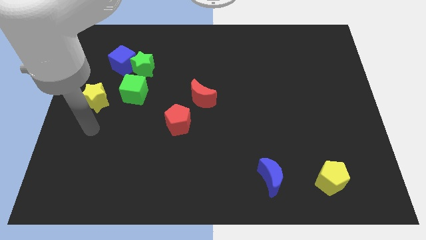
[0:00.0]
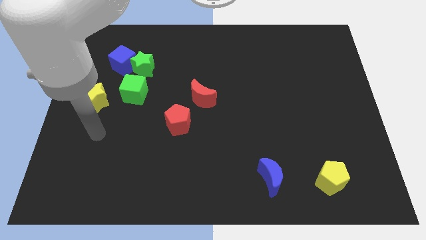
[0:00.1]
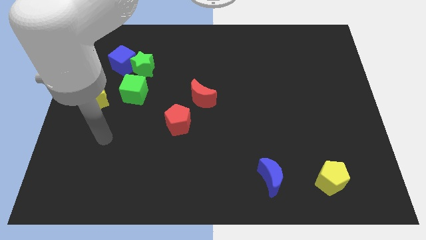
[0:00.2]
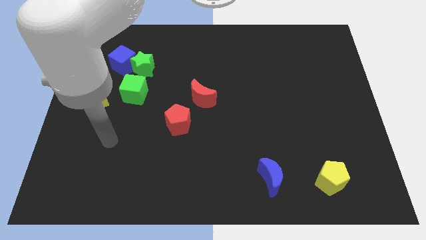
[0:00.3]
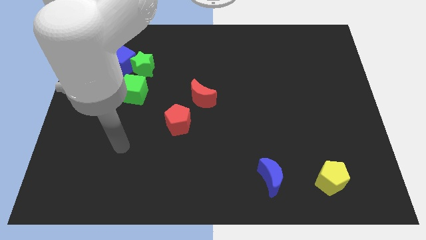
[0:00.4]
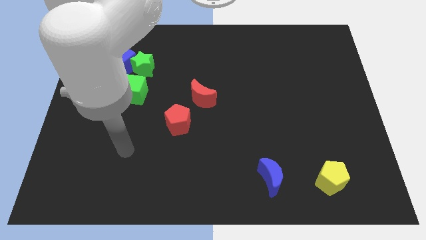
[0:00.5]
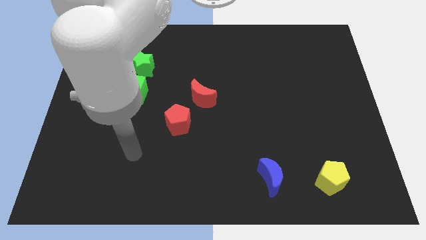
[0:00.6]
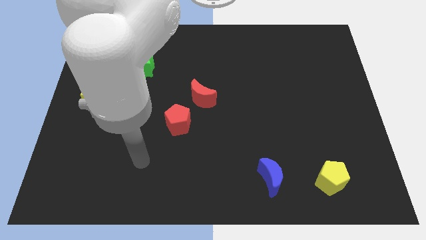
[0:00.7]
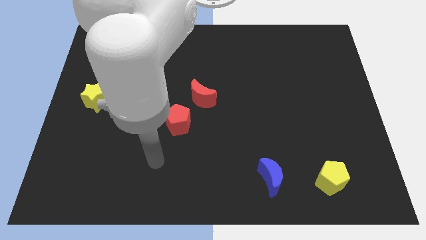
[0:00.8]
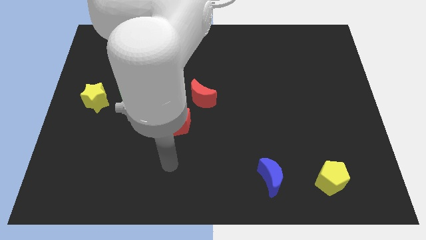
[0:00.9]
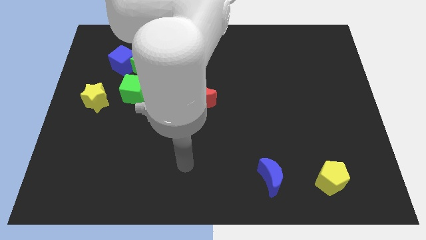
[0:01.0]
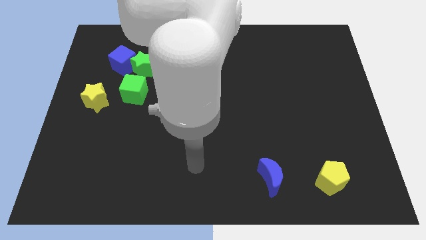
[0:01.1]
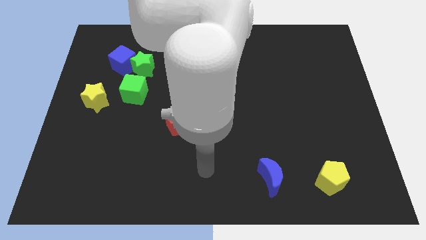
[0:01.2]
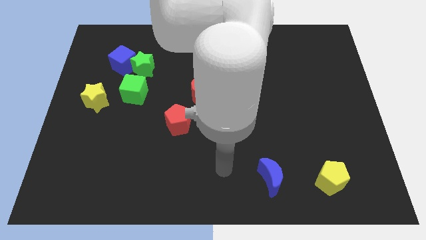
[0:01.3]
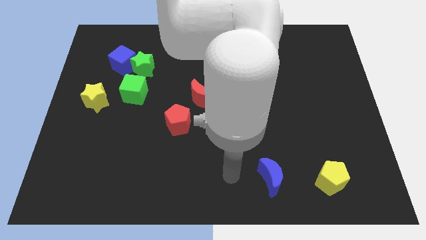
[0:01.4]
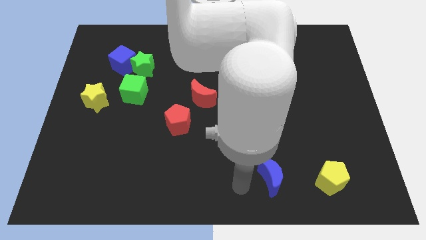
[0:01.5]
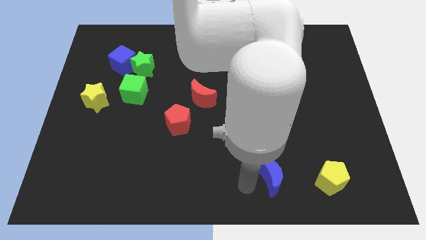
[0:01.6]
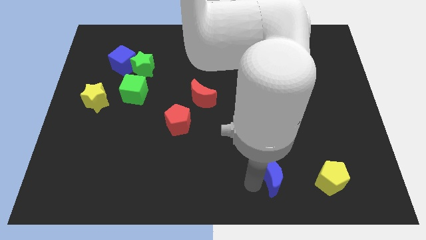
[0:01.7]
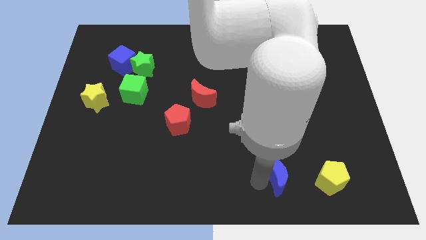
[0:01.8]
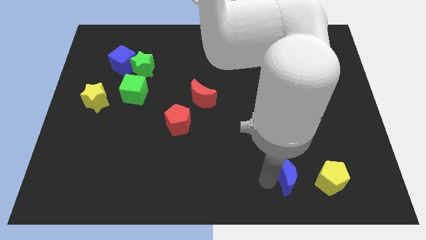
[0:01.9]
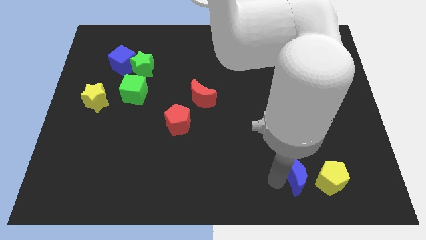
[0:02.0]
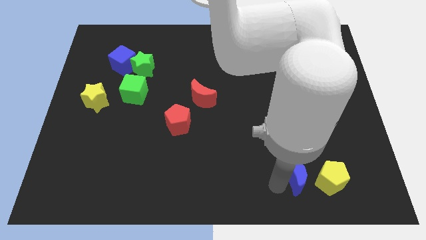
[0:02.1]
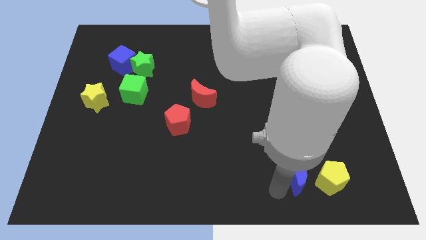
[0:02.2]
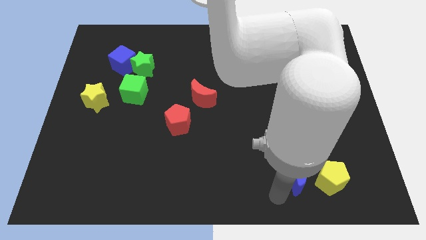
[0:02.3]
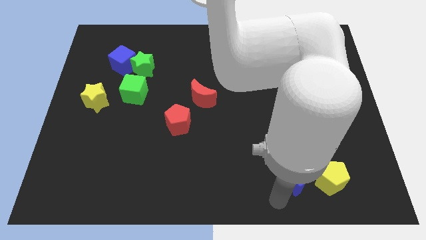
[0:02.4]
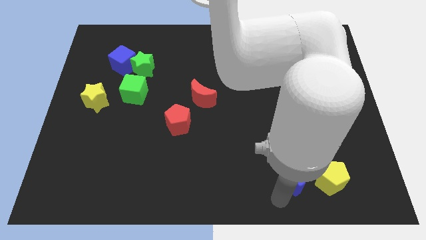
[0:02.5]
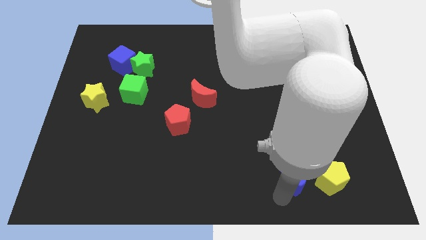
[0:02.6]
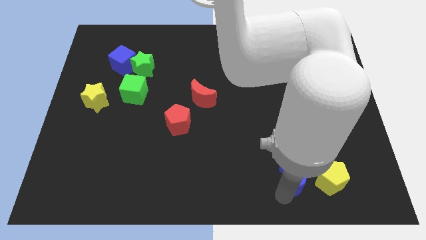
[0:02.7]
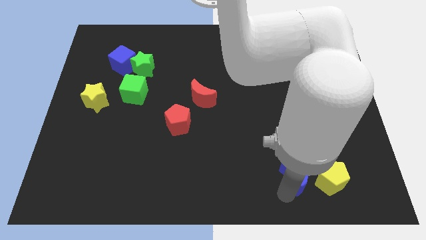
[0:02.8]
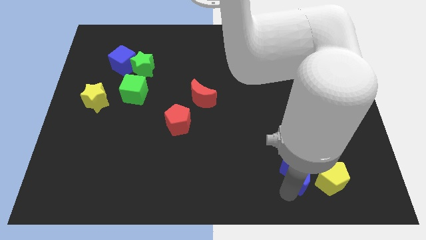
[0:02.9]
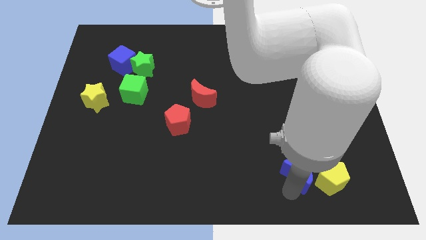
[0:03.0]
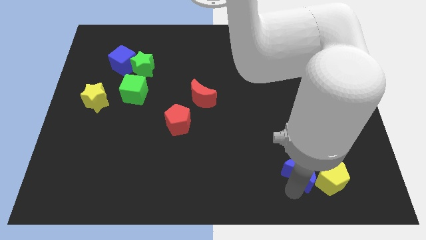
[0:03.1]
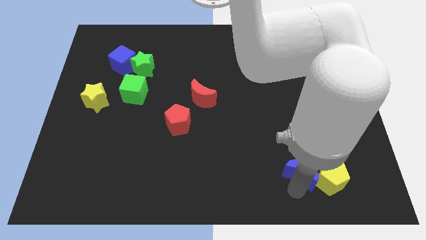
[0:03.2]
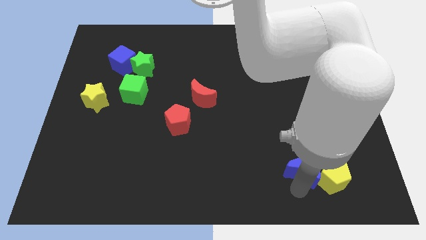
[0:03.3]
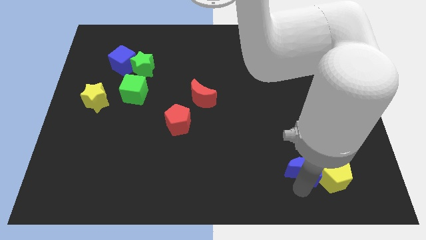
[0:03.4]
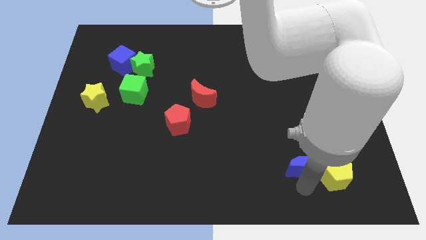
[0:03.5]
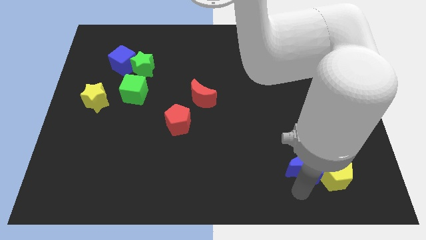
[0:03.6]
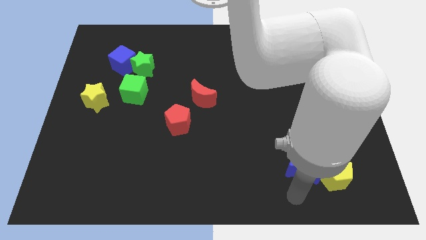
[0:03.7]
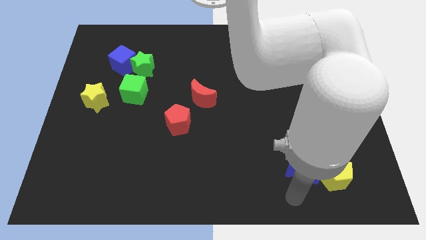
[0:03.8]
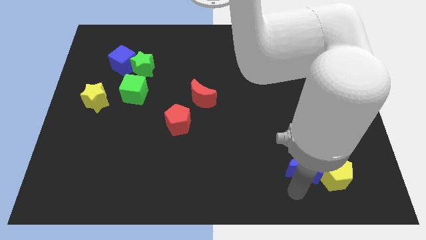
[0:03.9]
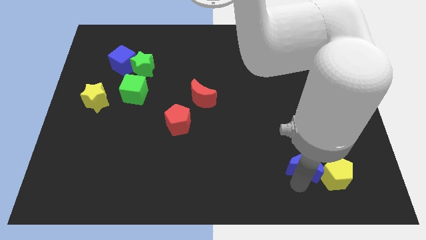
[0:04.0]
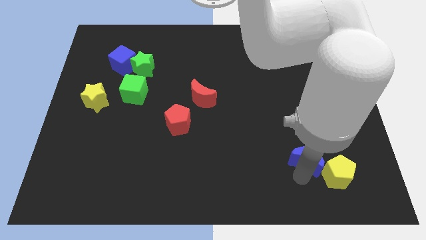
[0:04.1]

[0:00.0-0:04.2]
push the blue moon a little upwards and to the right diagonally

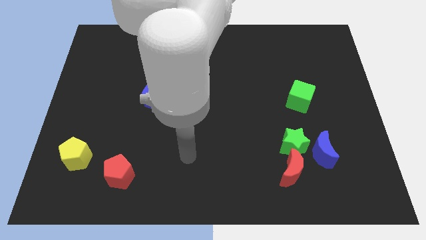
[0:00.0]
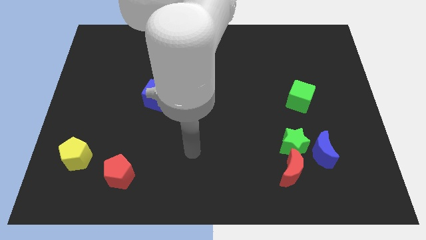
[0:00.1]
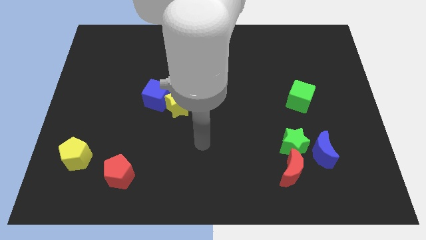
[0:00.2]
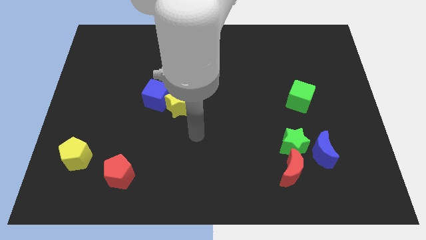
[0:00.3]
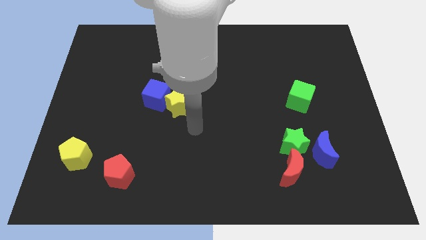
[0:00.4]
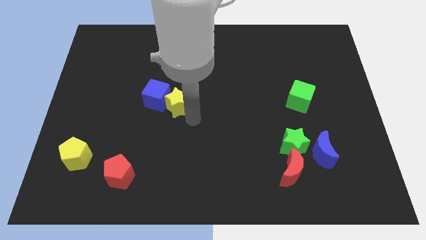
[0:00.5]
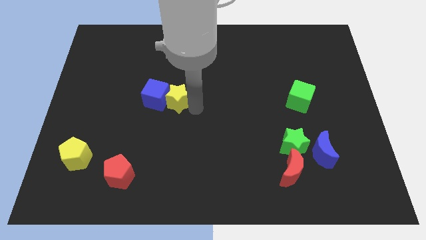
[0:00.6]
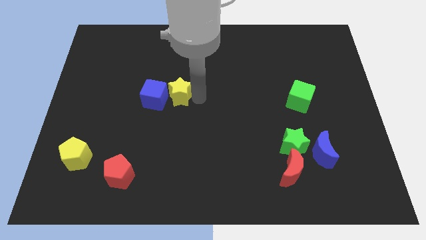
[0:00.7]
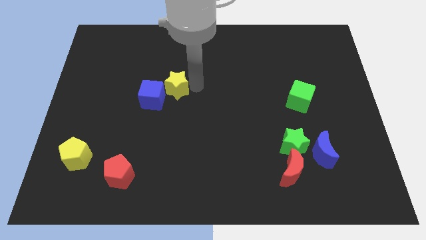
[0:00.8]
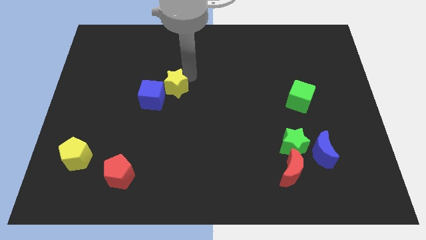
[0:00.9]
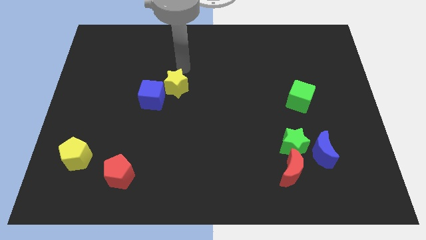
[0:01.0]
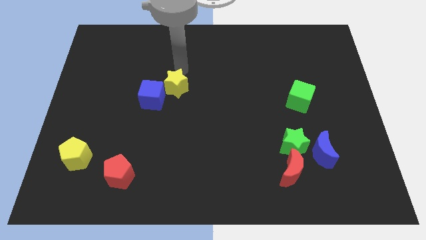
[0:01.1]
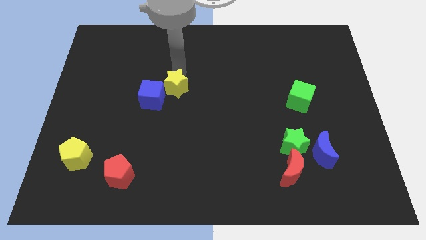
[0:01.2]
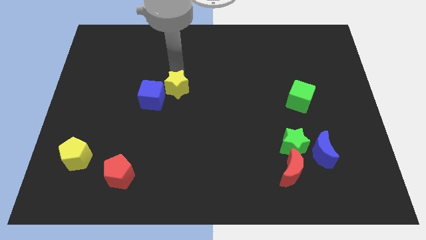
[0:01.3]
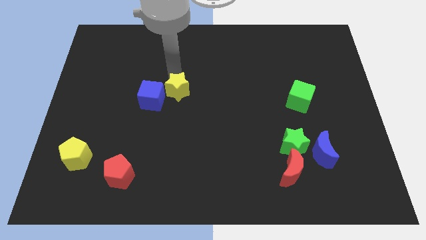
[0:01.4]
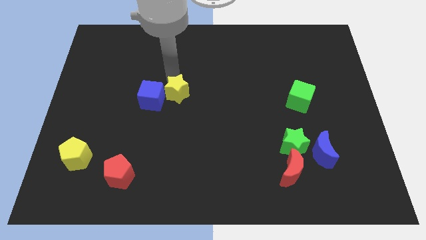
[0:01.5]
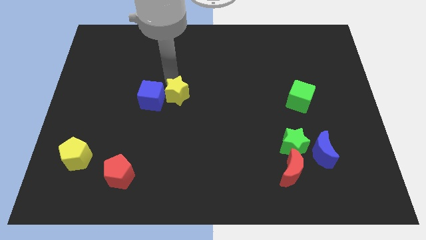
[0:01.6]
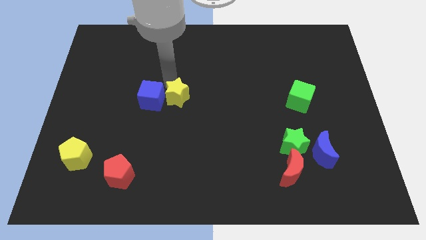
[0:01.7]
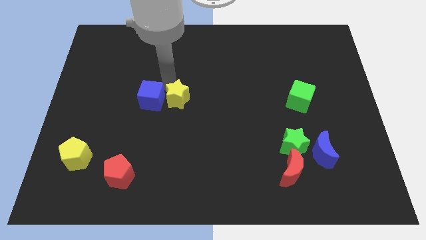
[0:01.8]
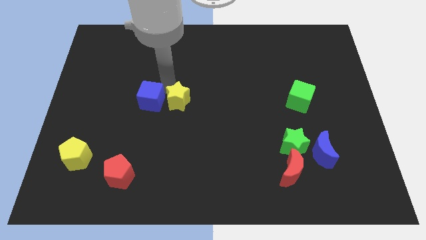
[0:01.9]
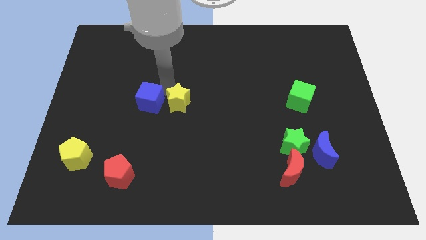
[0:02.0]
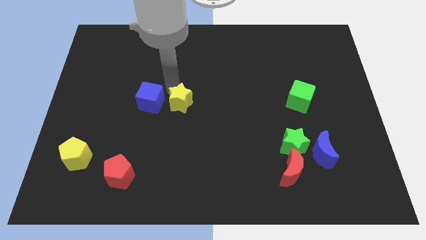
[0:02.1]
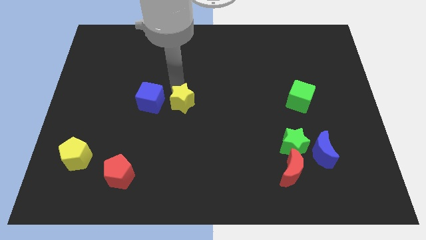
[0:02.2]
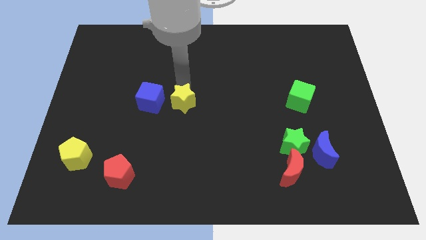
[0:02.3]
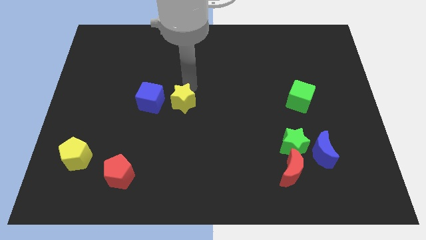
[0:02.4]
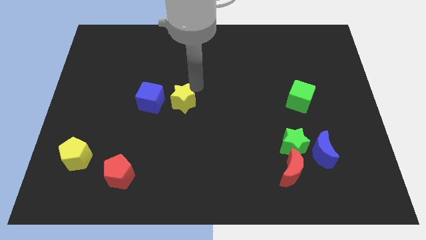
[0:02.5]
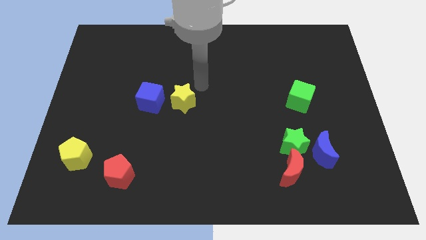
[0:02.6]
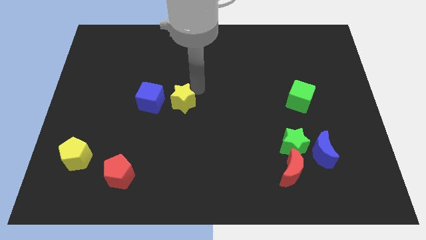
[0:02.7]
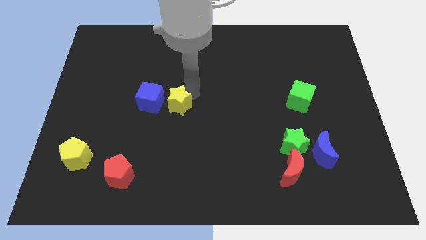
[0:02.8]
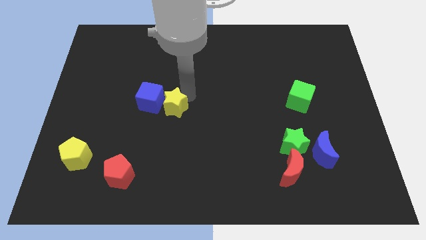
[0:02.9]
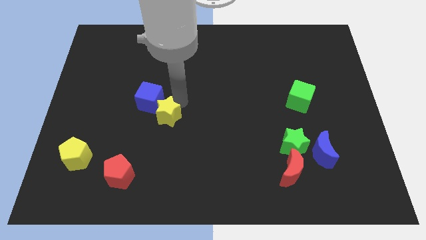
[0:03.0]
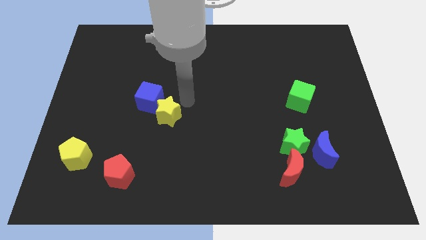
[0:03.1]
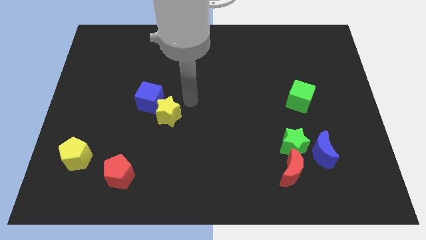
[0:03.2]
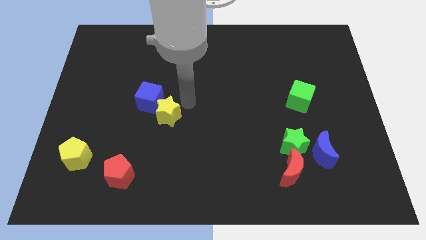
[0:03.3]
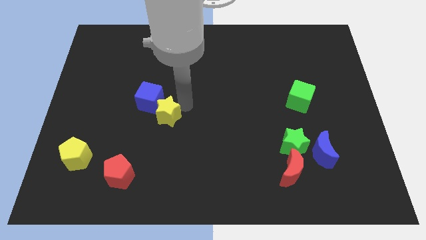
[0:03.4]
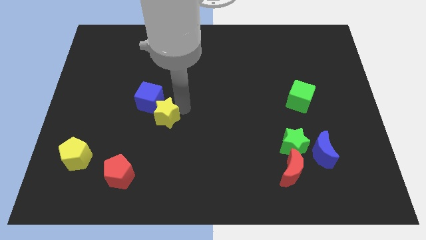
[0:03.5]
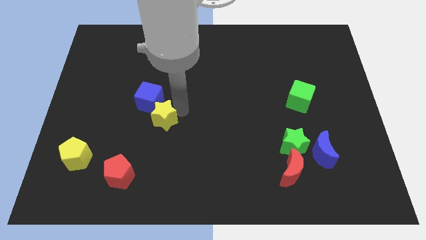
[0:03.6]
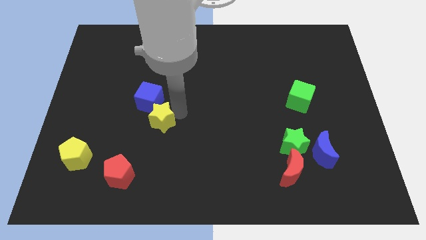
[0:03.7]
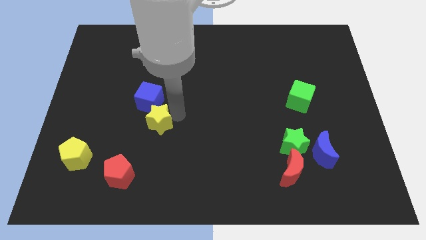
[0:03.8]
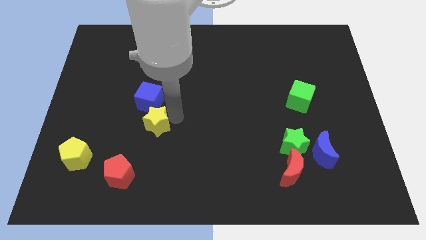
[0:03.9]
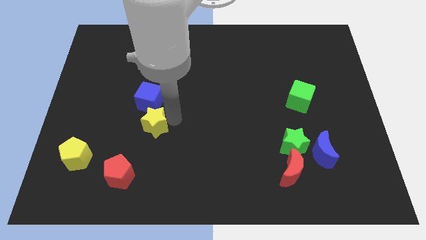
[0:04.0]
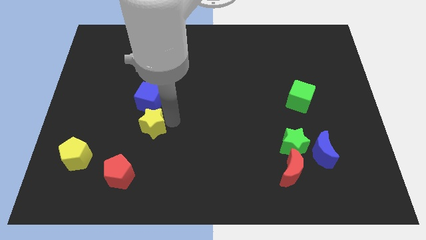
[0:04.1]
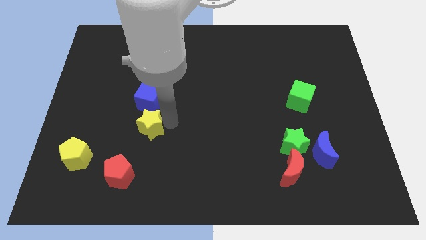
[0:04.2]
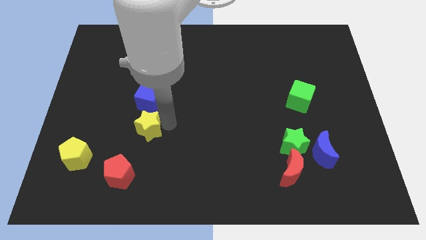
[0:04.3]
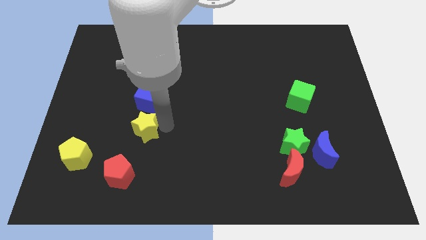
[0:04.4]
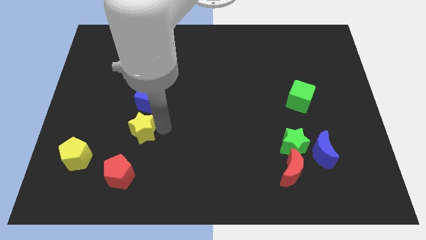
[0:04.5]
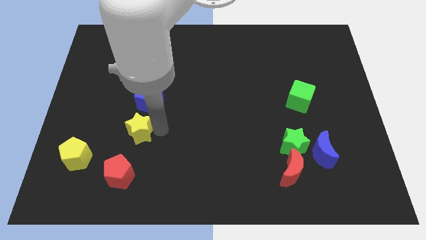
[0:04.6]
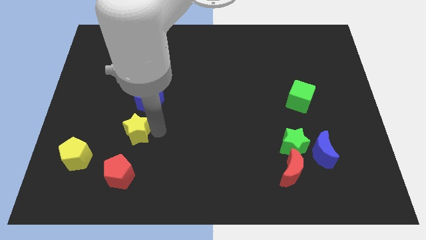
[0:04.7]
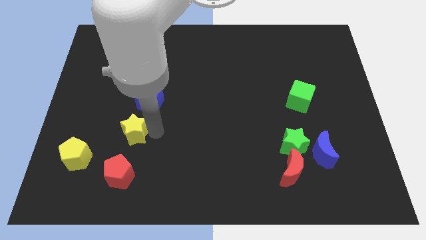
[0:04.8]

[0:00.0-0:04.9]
slightly slide the yellow star to the left
